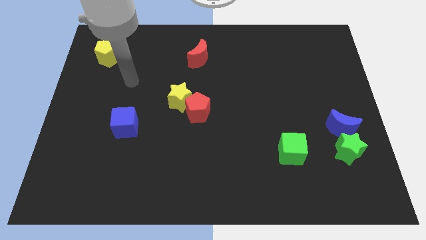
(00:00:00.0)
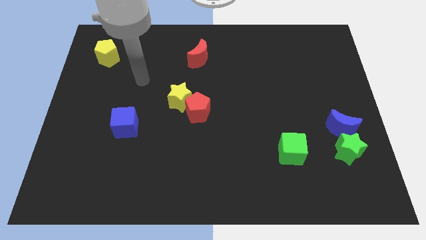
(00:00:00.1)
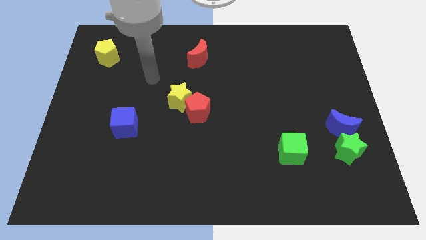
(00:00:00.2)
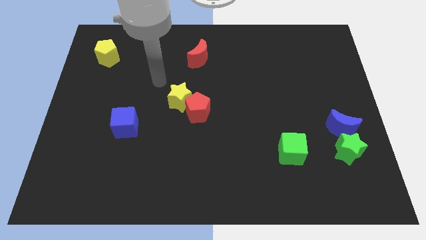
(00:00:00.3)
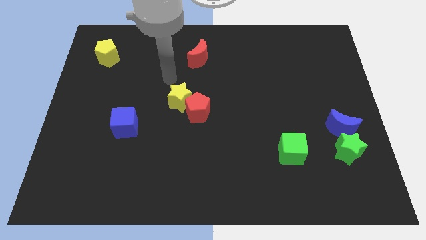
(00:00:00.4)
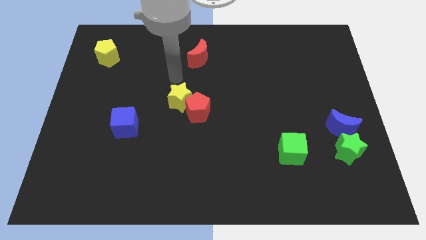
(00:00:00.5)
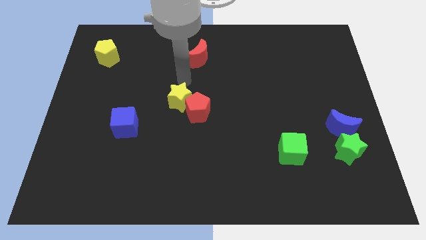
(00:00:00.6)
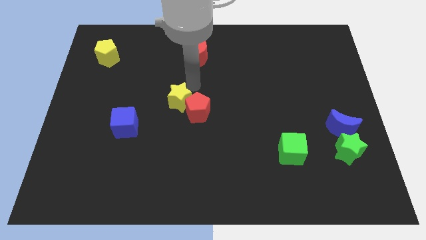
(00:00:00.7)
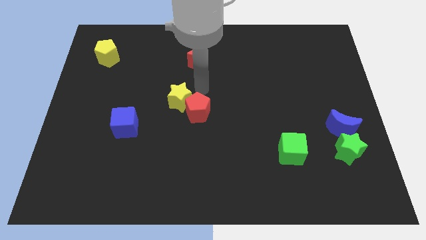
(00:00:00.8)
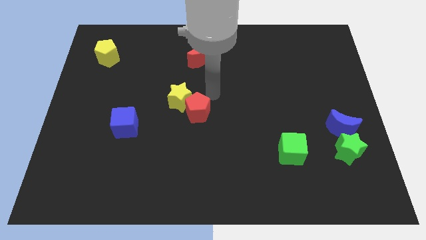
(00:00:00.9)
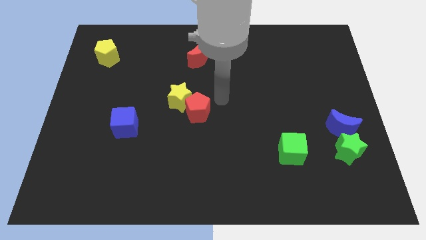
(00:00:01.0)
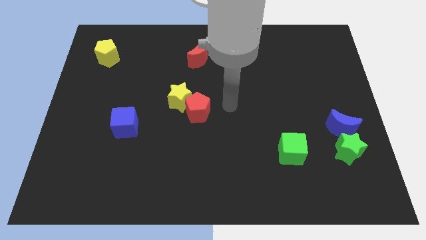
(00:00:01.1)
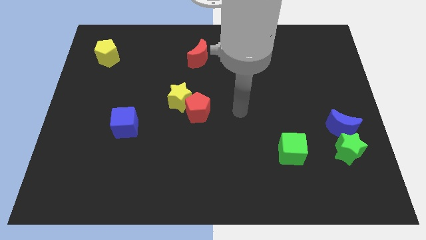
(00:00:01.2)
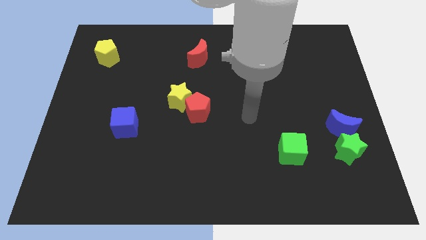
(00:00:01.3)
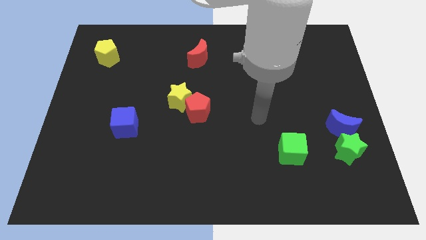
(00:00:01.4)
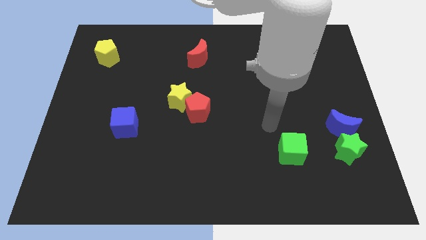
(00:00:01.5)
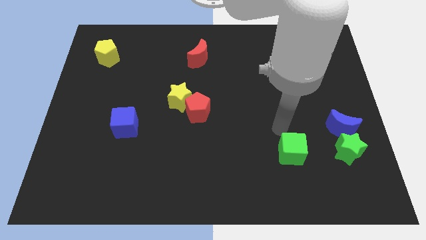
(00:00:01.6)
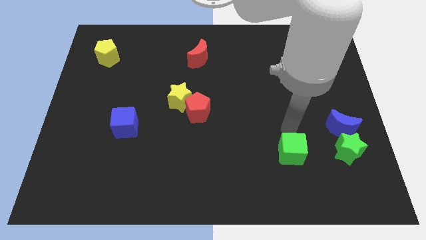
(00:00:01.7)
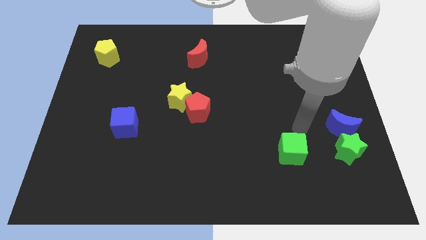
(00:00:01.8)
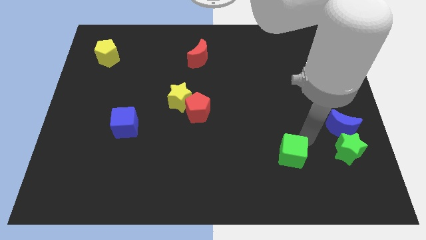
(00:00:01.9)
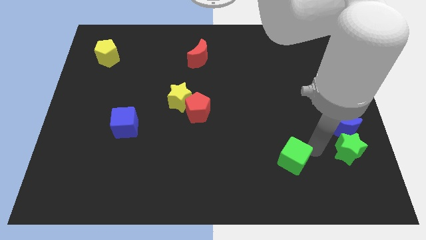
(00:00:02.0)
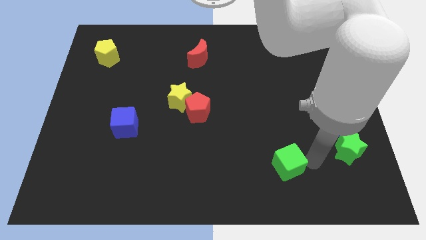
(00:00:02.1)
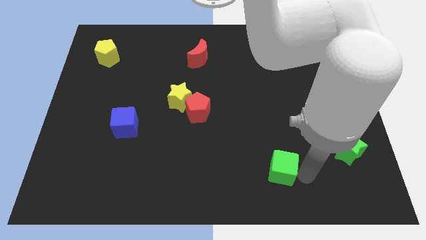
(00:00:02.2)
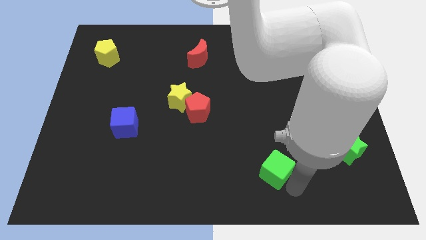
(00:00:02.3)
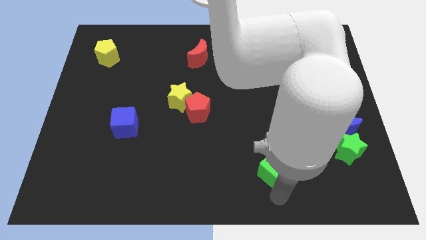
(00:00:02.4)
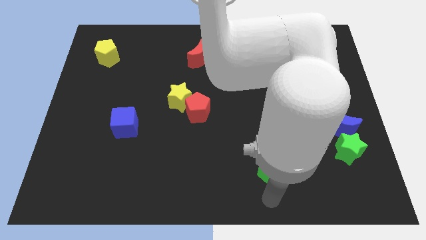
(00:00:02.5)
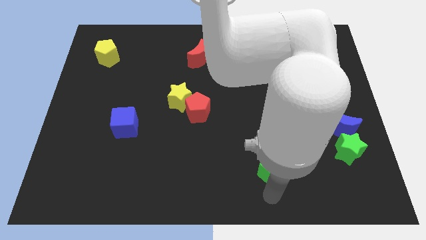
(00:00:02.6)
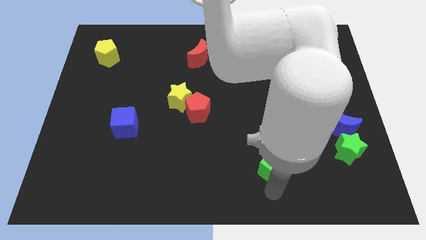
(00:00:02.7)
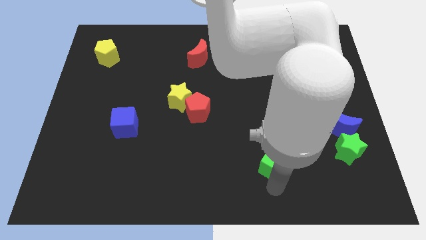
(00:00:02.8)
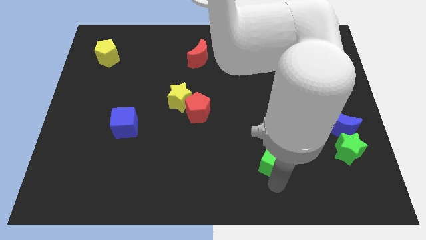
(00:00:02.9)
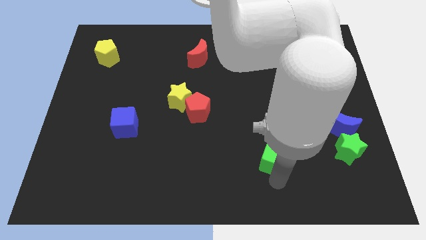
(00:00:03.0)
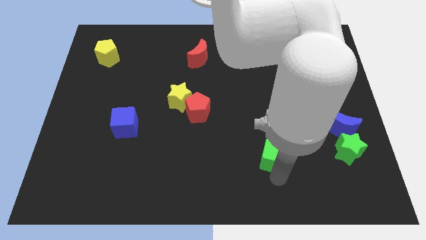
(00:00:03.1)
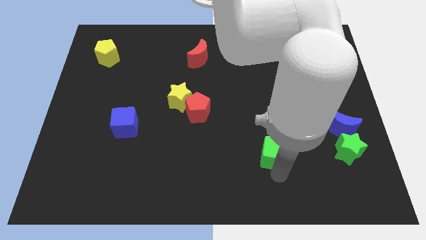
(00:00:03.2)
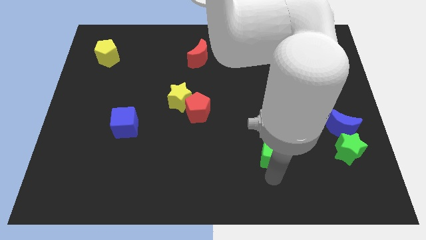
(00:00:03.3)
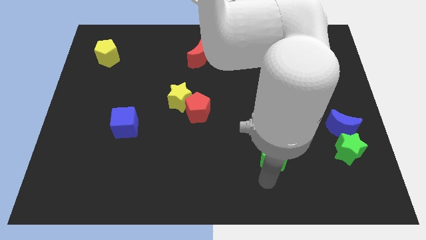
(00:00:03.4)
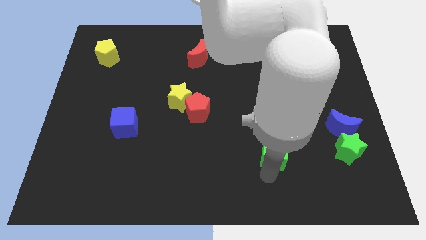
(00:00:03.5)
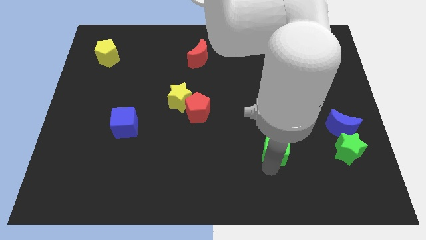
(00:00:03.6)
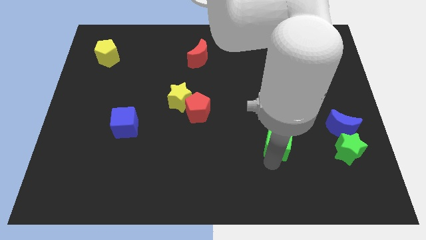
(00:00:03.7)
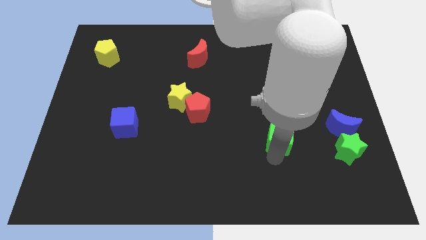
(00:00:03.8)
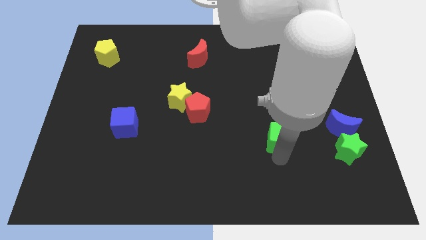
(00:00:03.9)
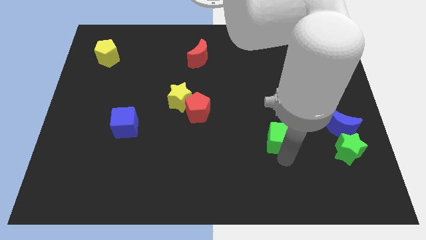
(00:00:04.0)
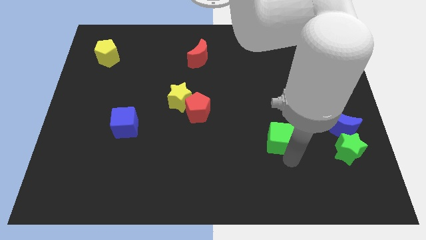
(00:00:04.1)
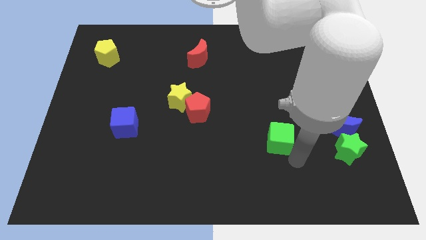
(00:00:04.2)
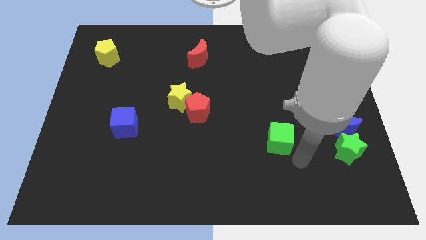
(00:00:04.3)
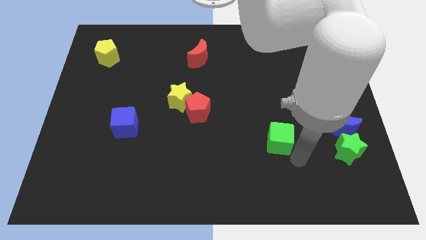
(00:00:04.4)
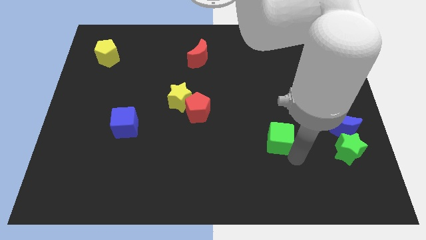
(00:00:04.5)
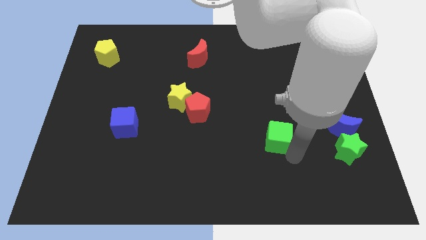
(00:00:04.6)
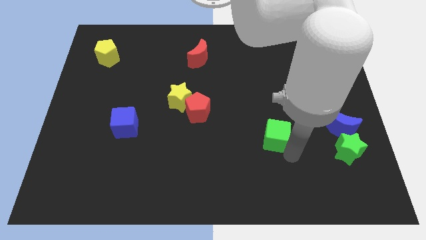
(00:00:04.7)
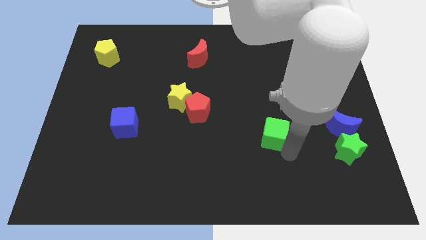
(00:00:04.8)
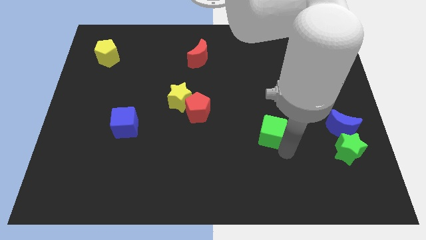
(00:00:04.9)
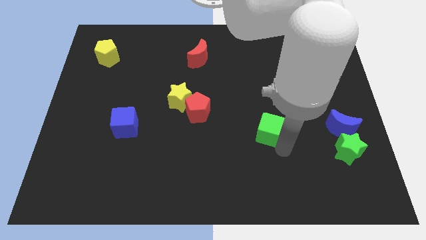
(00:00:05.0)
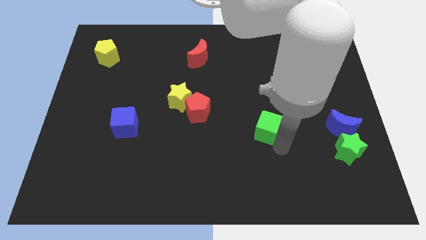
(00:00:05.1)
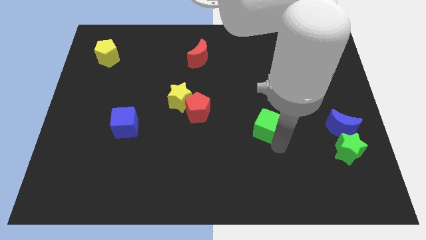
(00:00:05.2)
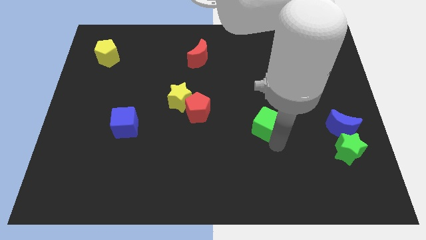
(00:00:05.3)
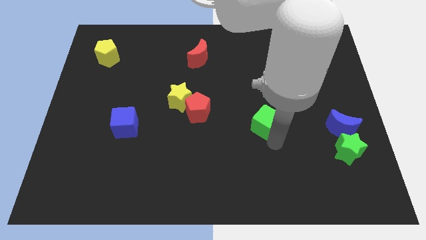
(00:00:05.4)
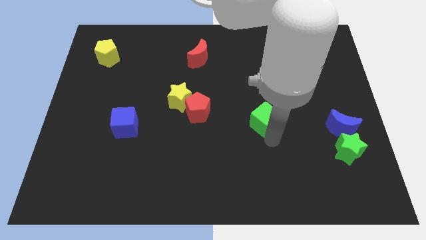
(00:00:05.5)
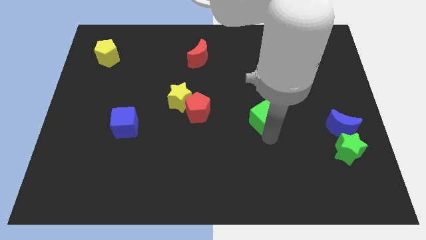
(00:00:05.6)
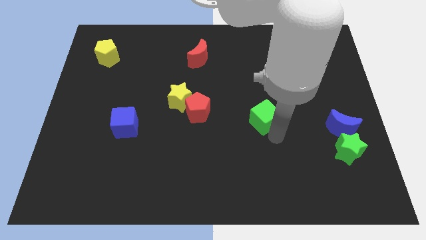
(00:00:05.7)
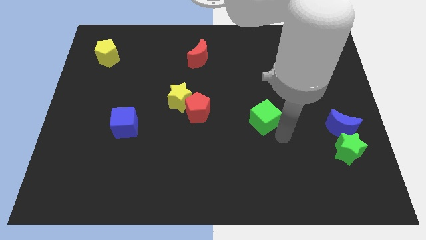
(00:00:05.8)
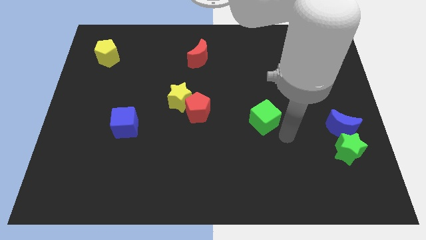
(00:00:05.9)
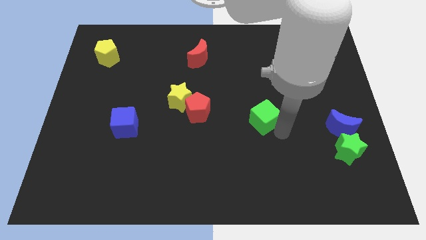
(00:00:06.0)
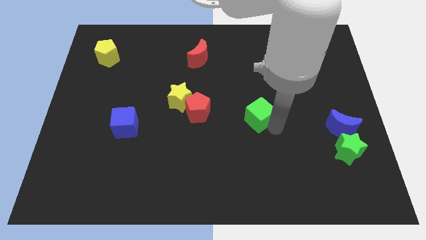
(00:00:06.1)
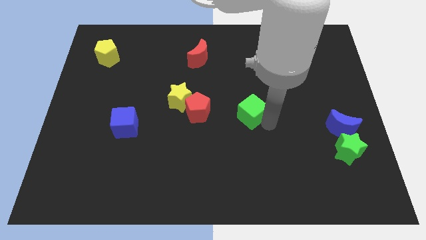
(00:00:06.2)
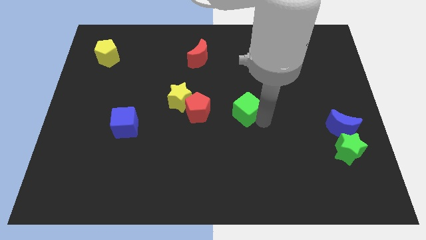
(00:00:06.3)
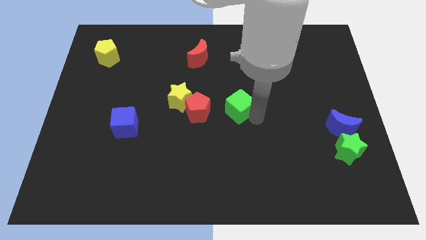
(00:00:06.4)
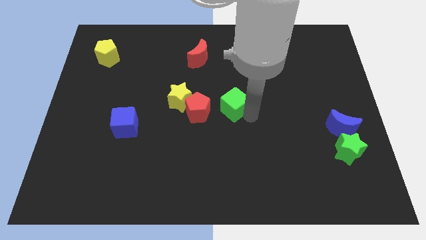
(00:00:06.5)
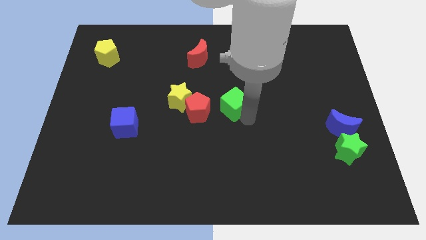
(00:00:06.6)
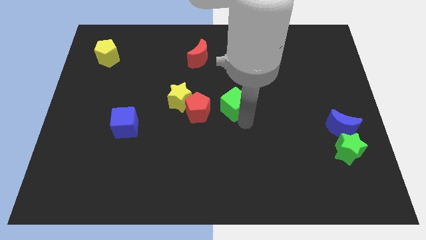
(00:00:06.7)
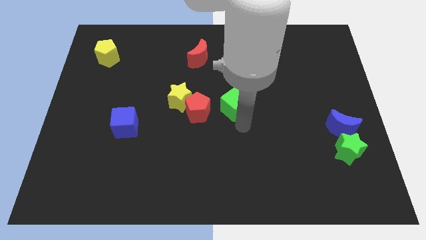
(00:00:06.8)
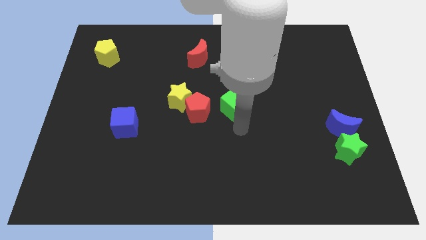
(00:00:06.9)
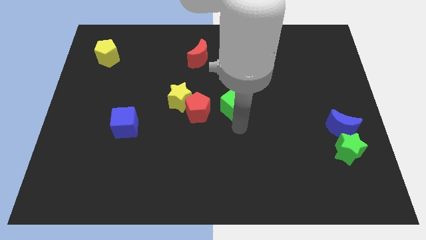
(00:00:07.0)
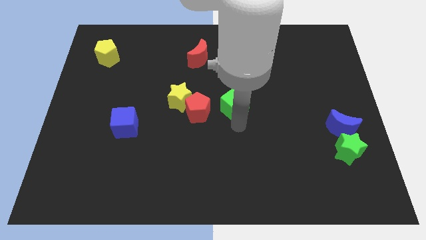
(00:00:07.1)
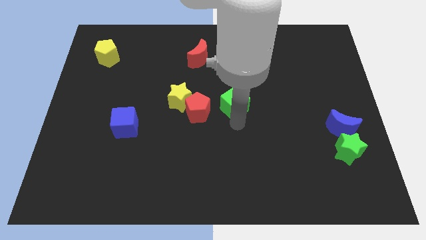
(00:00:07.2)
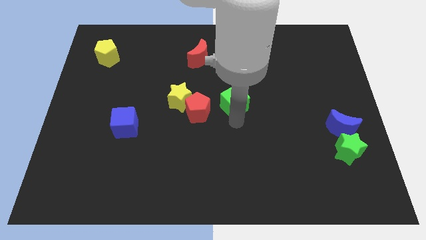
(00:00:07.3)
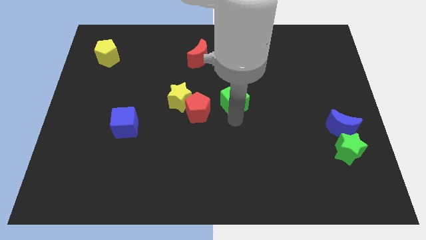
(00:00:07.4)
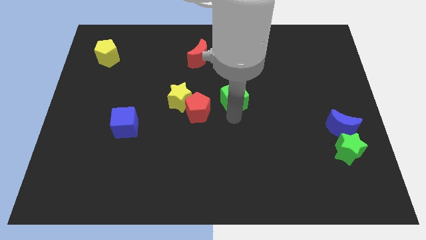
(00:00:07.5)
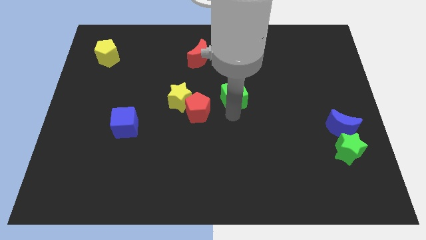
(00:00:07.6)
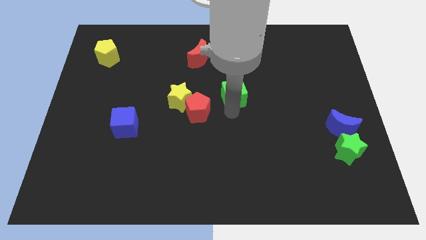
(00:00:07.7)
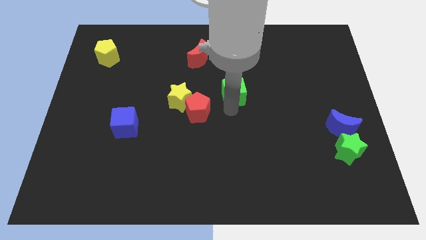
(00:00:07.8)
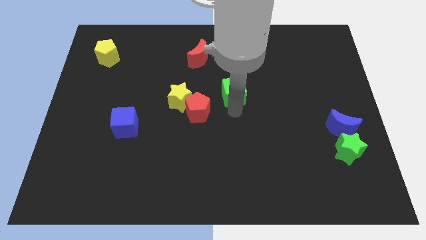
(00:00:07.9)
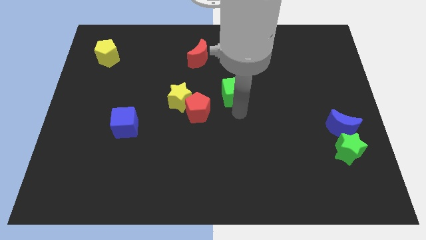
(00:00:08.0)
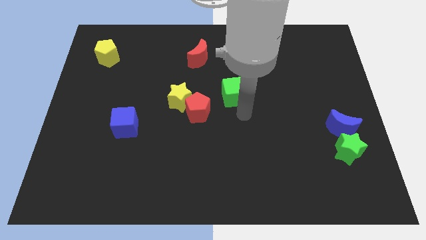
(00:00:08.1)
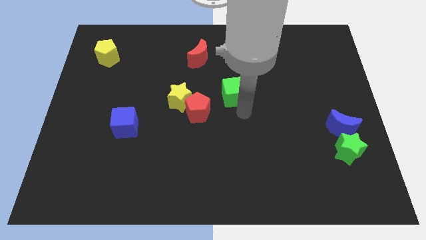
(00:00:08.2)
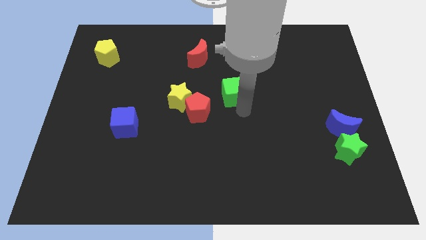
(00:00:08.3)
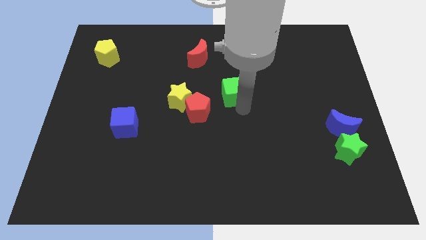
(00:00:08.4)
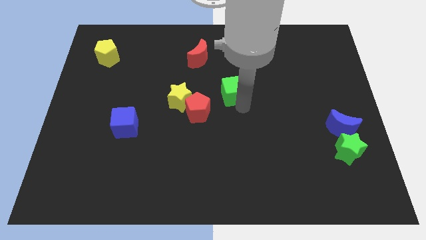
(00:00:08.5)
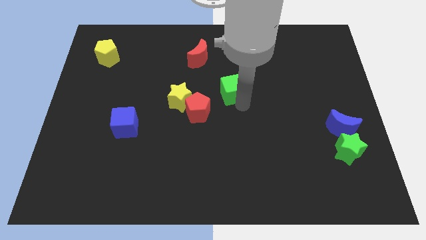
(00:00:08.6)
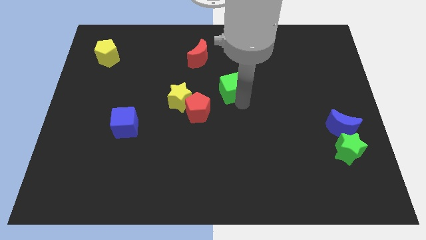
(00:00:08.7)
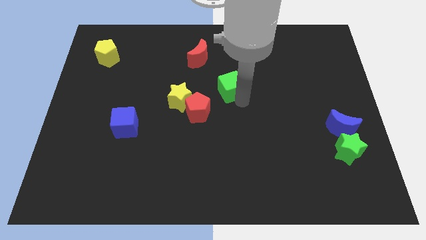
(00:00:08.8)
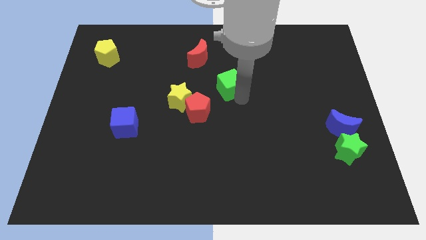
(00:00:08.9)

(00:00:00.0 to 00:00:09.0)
push the green cube to the bottom right of the red moon
